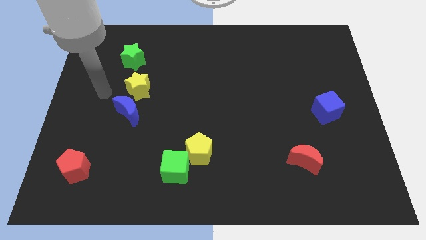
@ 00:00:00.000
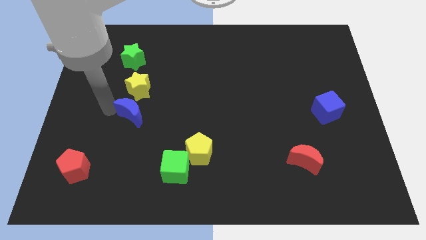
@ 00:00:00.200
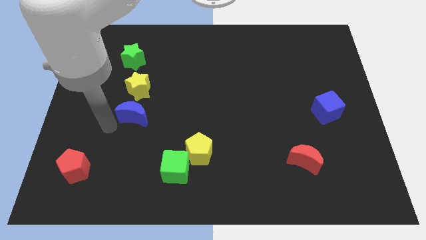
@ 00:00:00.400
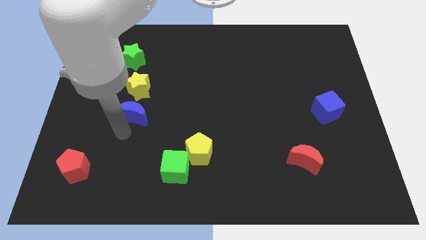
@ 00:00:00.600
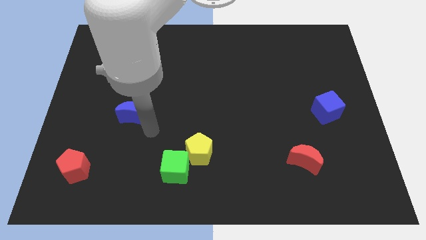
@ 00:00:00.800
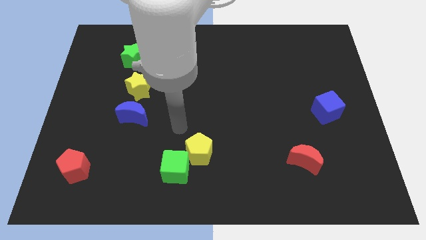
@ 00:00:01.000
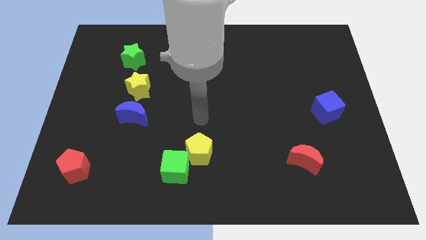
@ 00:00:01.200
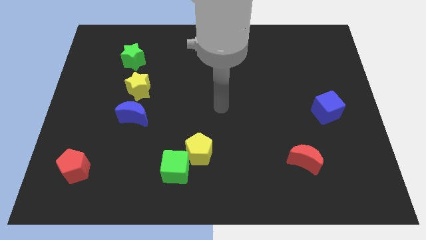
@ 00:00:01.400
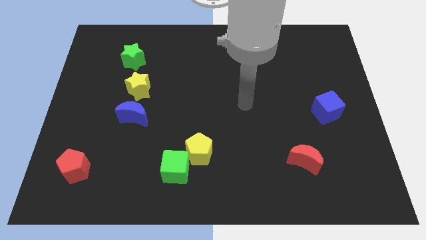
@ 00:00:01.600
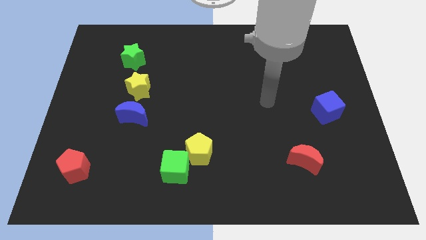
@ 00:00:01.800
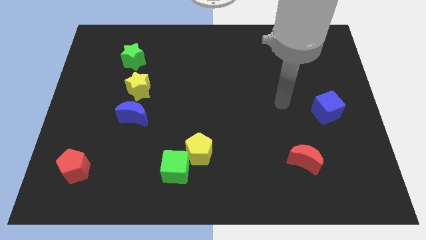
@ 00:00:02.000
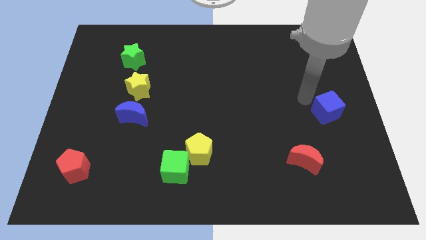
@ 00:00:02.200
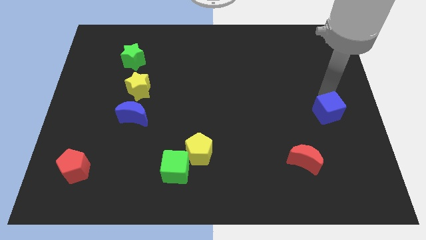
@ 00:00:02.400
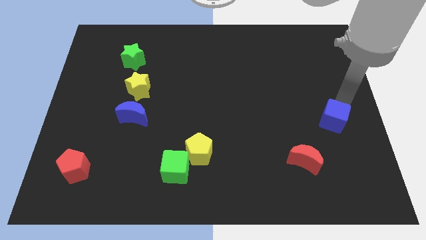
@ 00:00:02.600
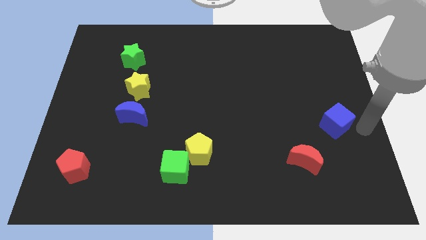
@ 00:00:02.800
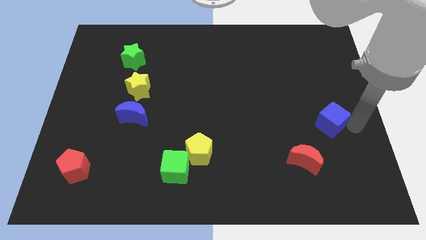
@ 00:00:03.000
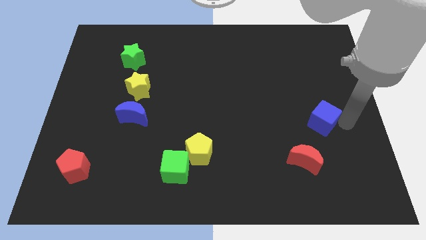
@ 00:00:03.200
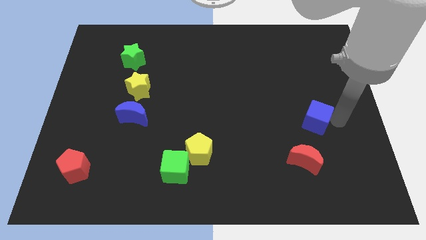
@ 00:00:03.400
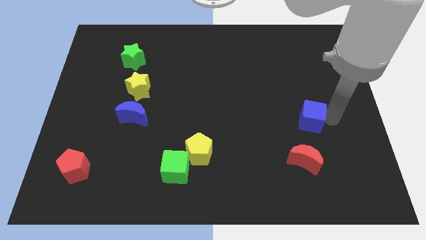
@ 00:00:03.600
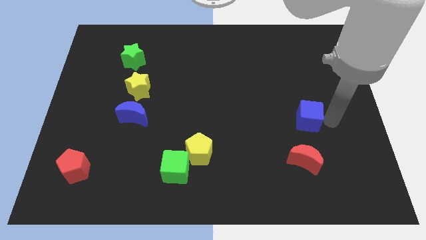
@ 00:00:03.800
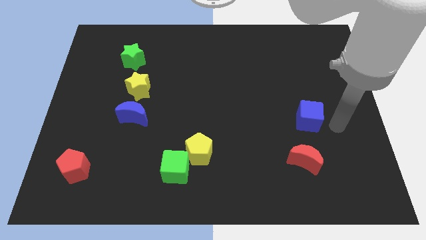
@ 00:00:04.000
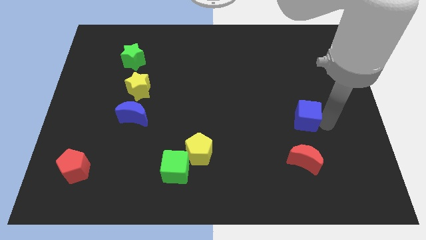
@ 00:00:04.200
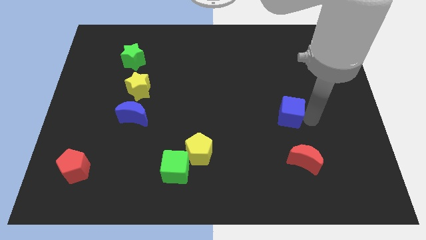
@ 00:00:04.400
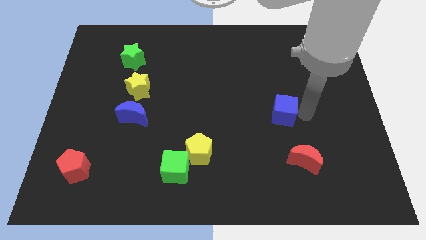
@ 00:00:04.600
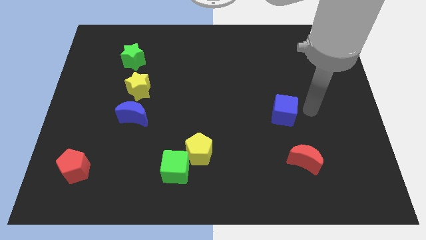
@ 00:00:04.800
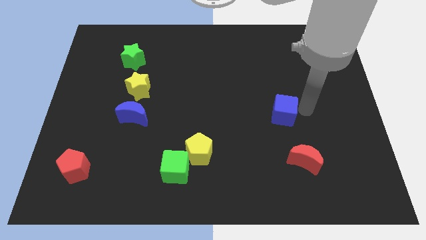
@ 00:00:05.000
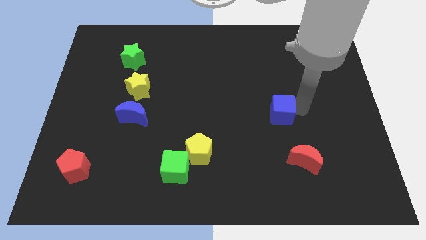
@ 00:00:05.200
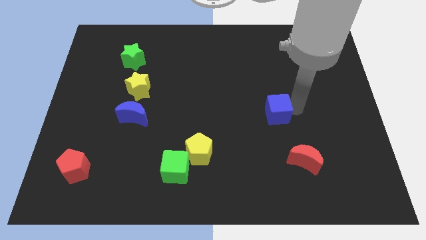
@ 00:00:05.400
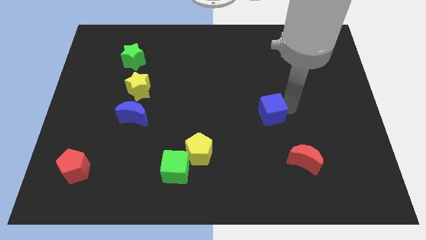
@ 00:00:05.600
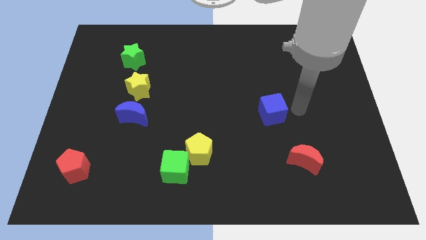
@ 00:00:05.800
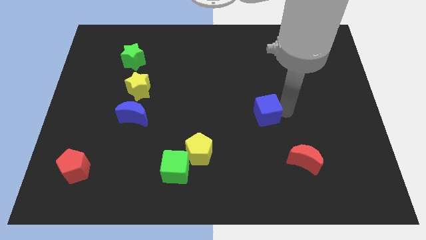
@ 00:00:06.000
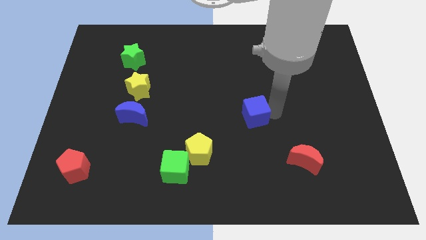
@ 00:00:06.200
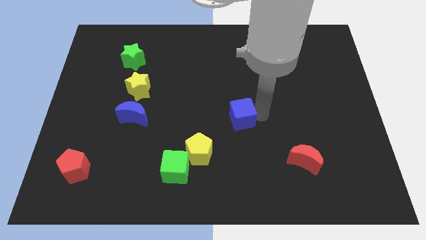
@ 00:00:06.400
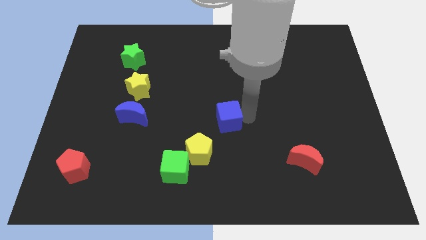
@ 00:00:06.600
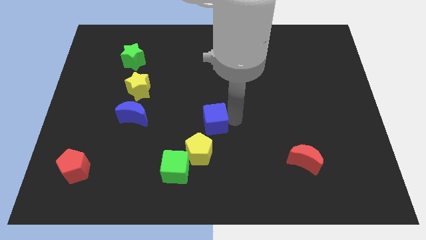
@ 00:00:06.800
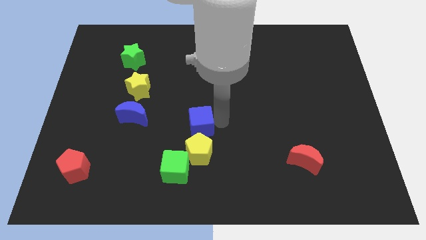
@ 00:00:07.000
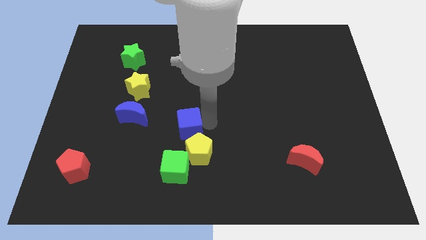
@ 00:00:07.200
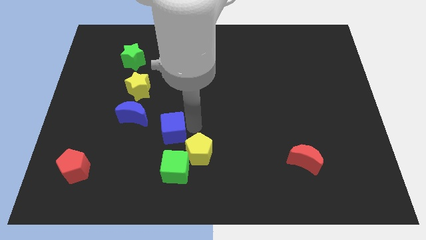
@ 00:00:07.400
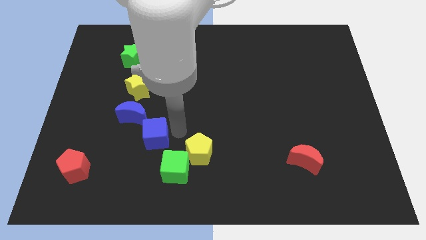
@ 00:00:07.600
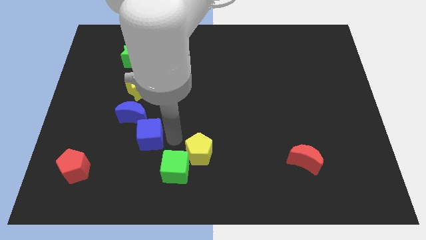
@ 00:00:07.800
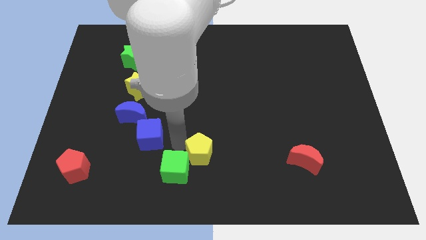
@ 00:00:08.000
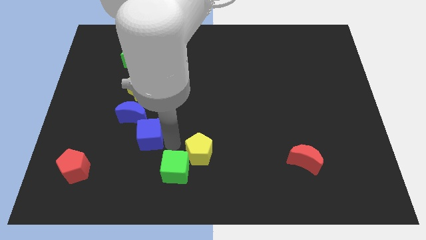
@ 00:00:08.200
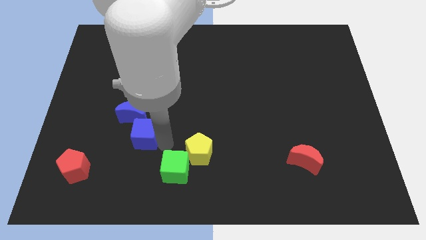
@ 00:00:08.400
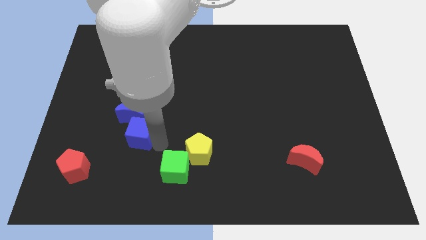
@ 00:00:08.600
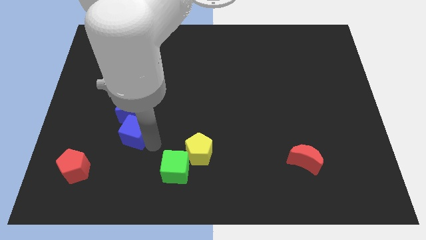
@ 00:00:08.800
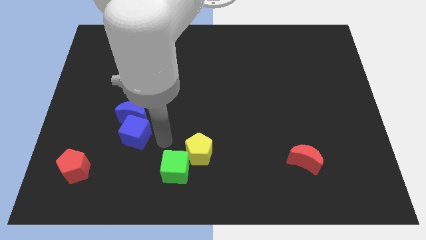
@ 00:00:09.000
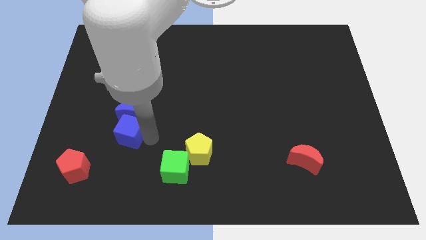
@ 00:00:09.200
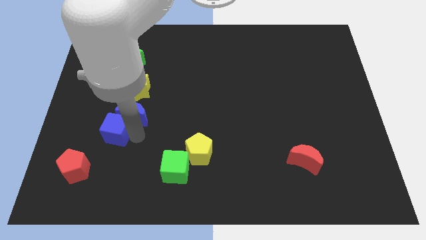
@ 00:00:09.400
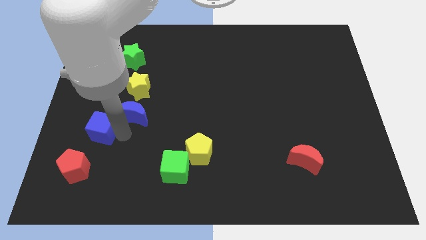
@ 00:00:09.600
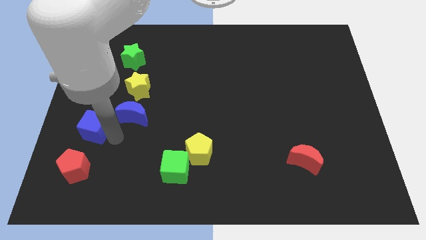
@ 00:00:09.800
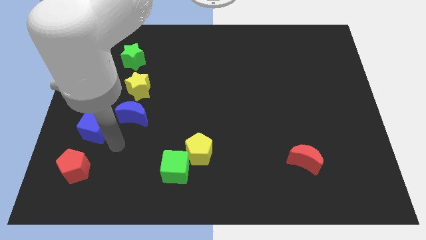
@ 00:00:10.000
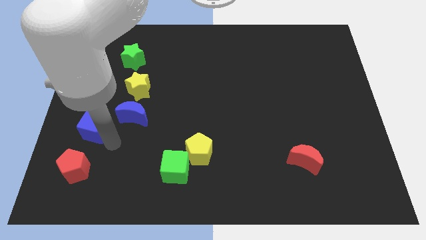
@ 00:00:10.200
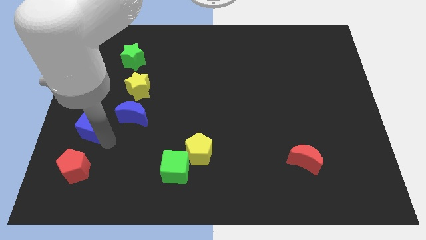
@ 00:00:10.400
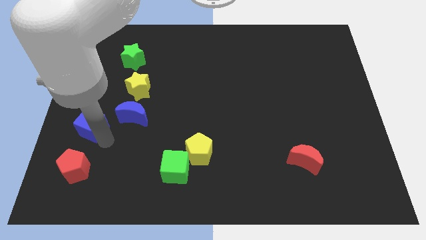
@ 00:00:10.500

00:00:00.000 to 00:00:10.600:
push the blue cube to the left side

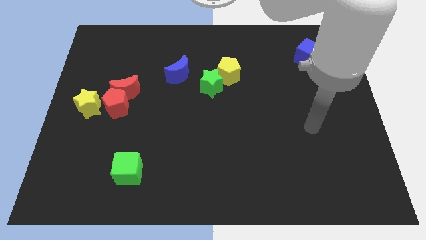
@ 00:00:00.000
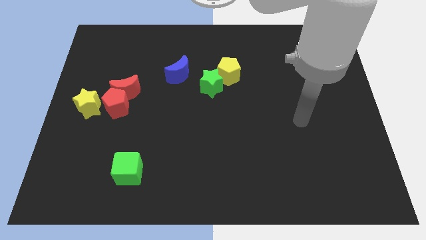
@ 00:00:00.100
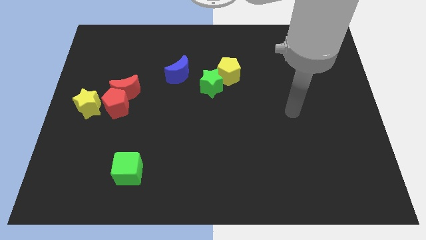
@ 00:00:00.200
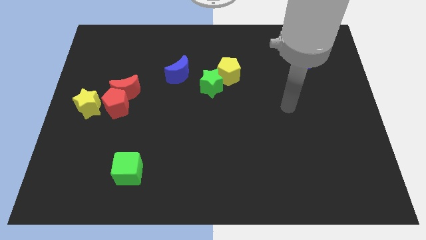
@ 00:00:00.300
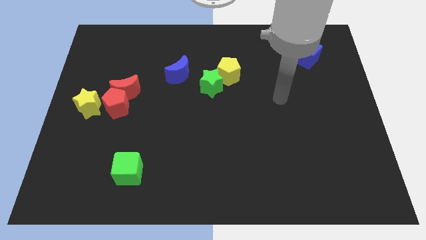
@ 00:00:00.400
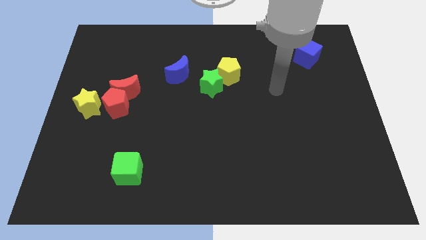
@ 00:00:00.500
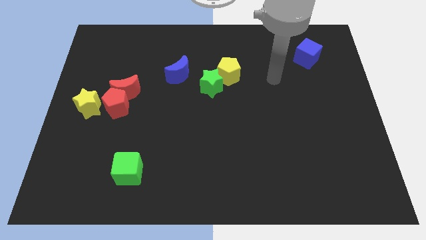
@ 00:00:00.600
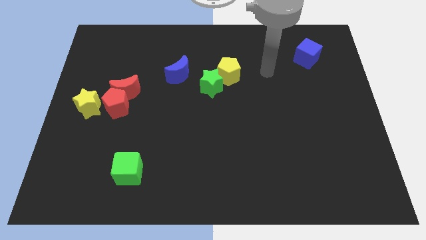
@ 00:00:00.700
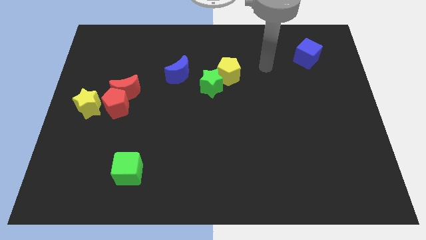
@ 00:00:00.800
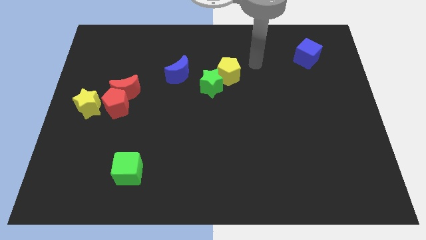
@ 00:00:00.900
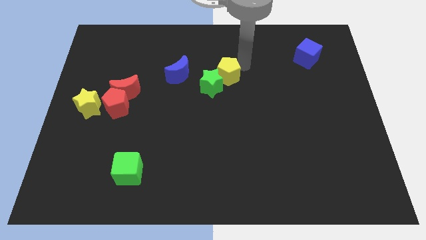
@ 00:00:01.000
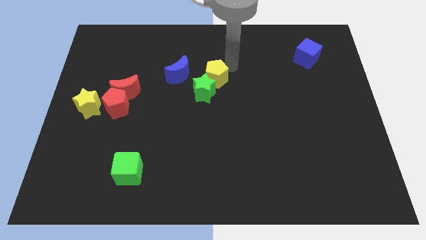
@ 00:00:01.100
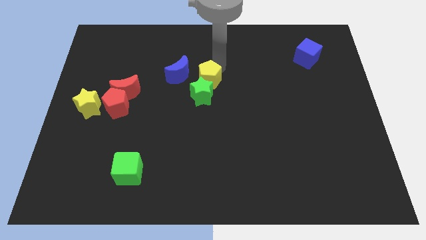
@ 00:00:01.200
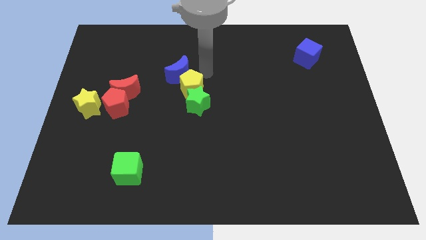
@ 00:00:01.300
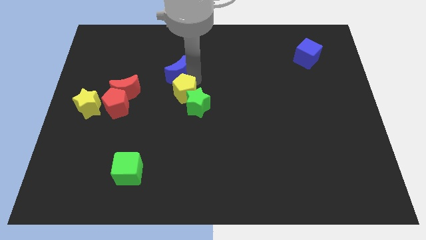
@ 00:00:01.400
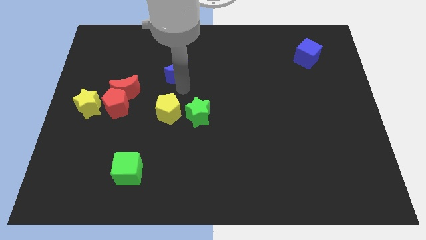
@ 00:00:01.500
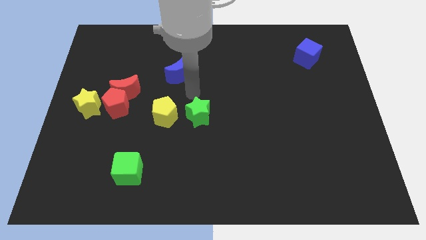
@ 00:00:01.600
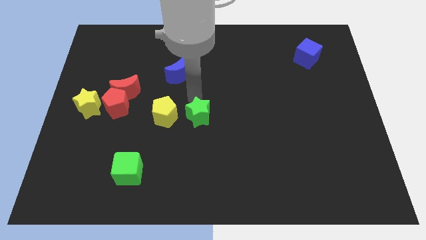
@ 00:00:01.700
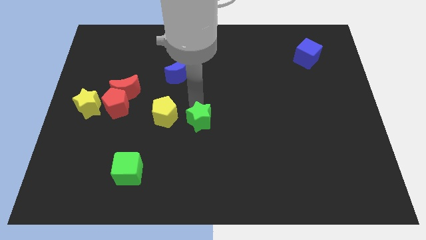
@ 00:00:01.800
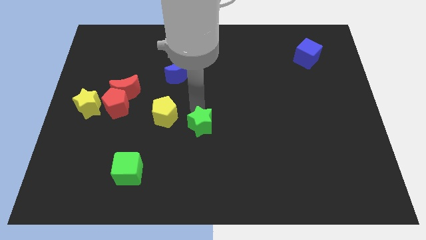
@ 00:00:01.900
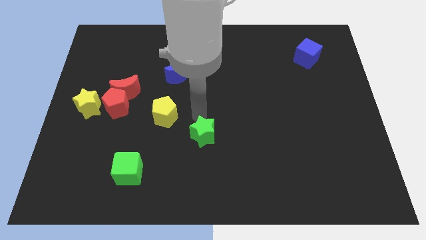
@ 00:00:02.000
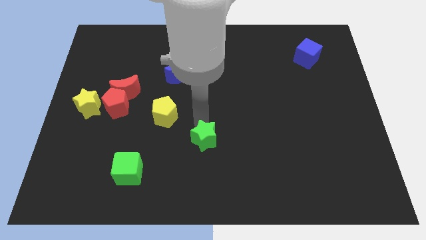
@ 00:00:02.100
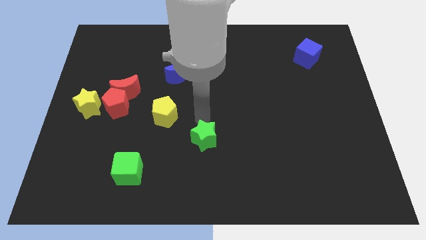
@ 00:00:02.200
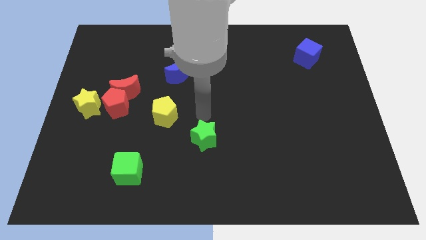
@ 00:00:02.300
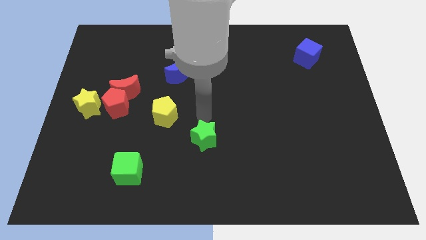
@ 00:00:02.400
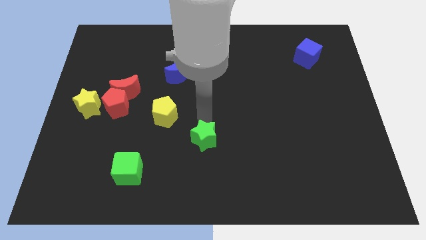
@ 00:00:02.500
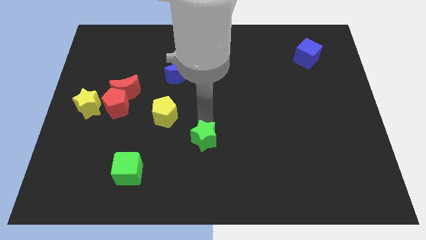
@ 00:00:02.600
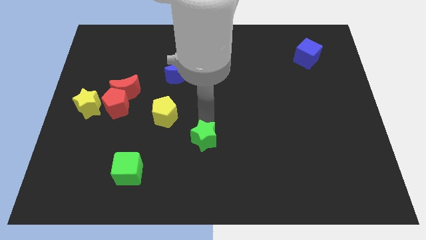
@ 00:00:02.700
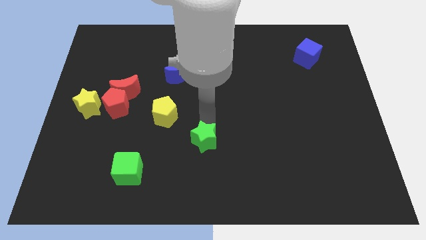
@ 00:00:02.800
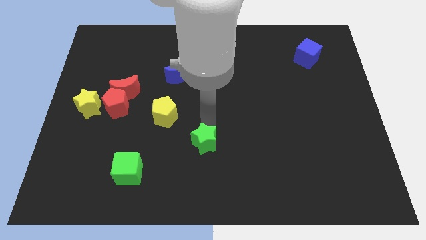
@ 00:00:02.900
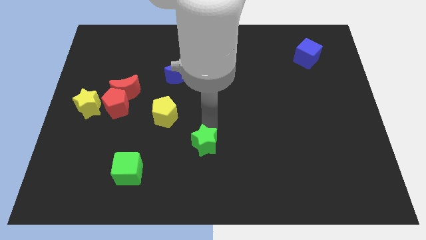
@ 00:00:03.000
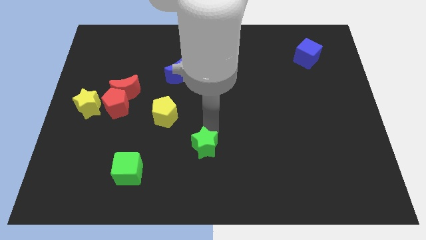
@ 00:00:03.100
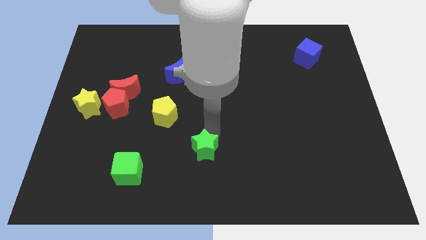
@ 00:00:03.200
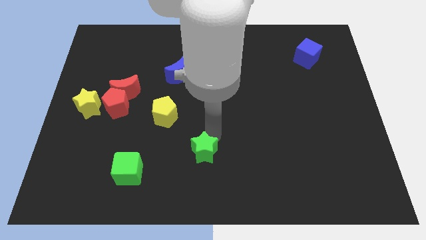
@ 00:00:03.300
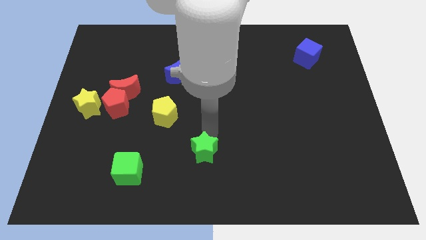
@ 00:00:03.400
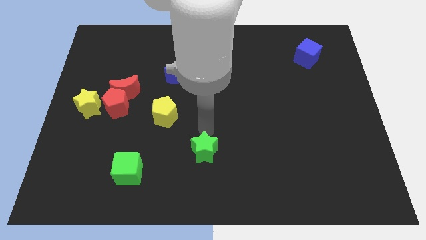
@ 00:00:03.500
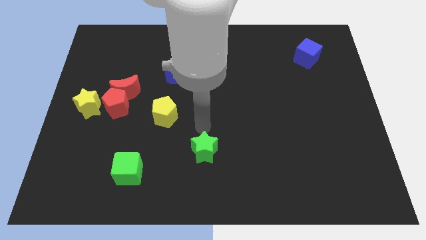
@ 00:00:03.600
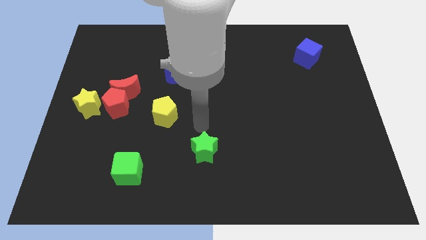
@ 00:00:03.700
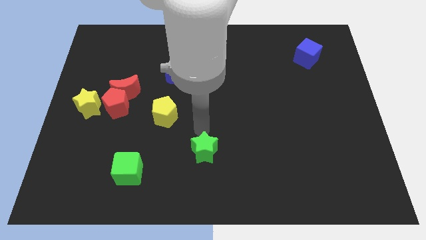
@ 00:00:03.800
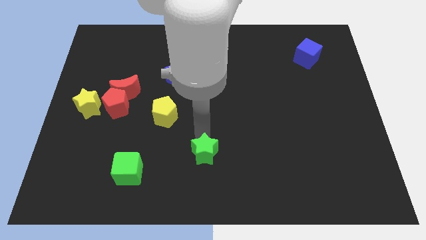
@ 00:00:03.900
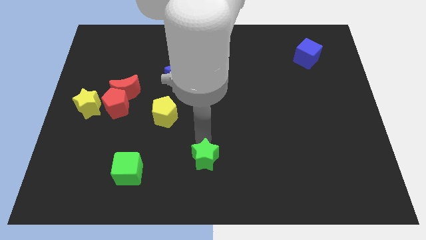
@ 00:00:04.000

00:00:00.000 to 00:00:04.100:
slide the green star to the bottom side
